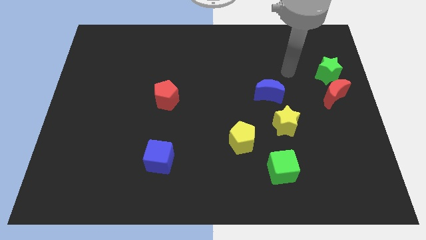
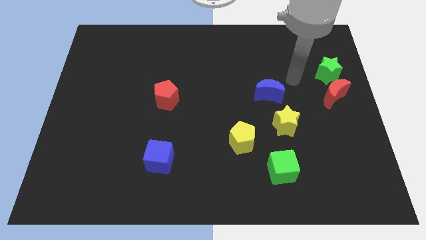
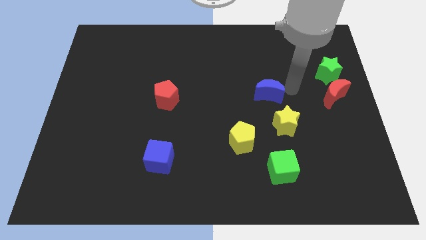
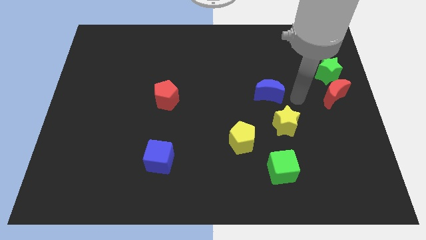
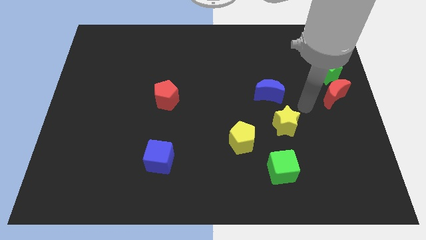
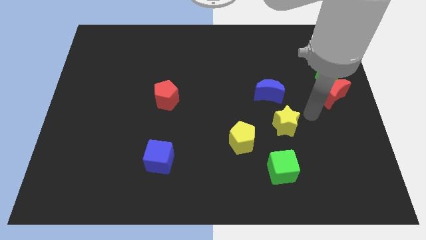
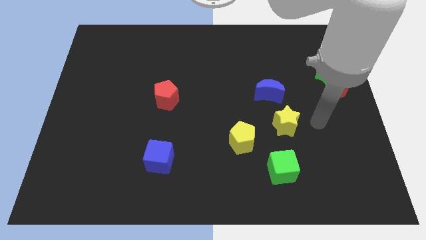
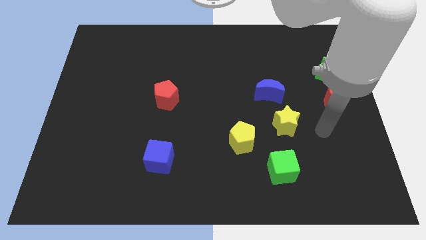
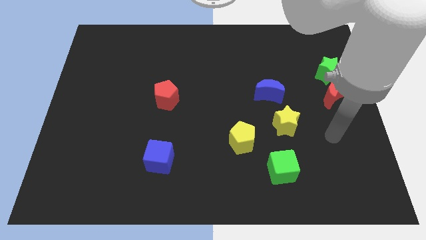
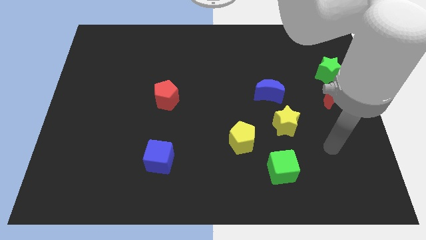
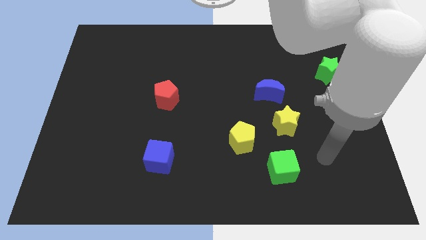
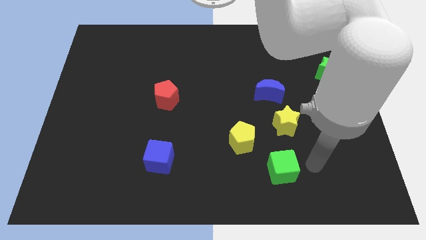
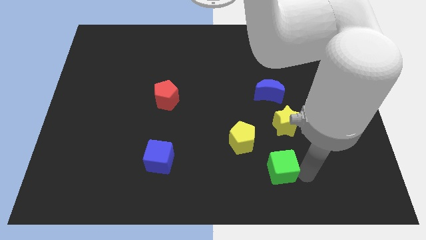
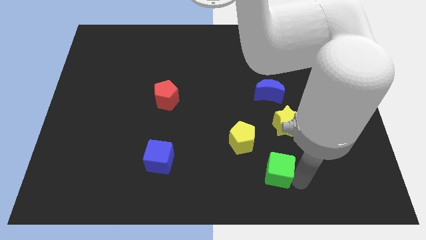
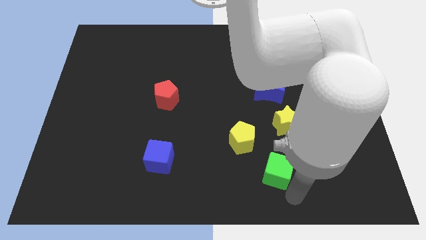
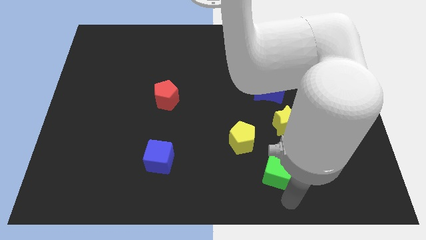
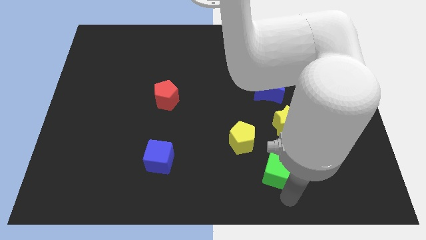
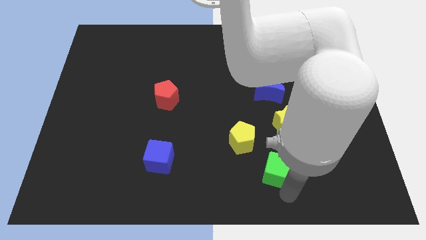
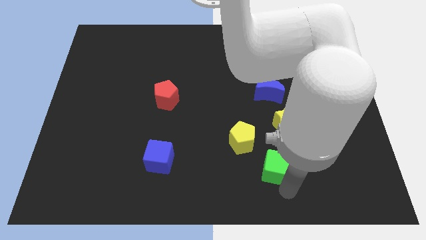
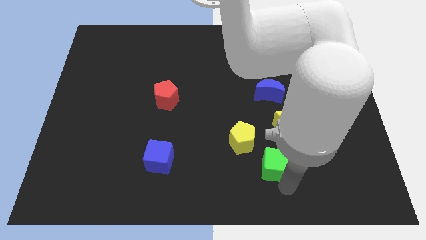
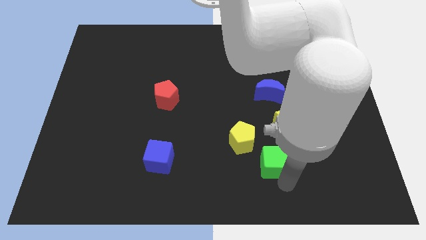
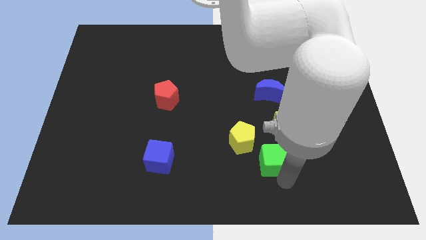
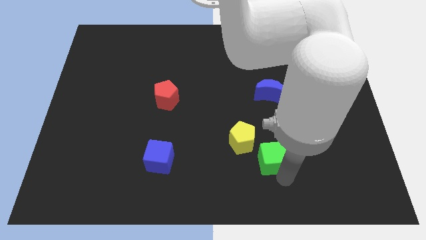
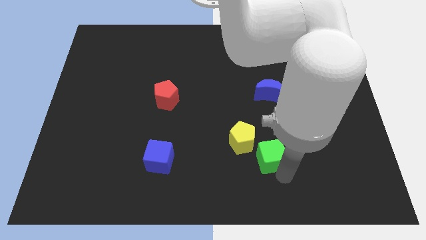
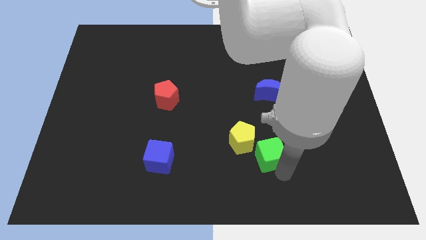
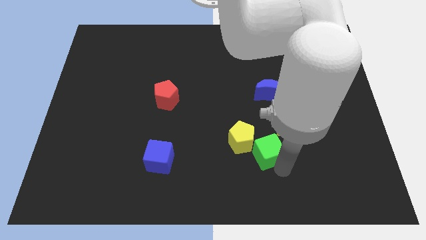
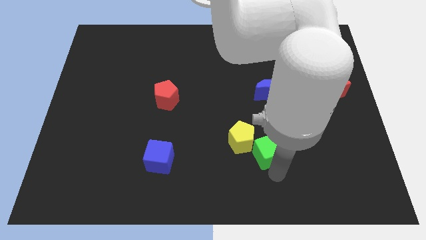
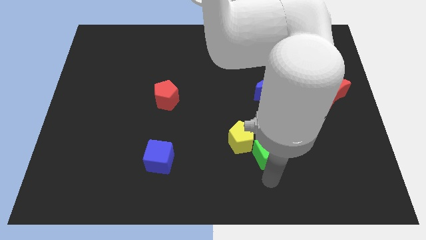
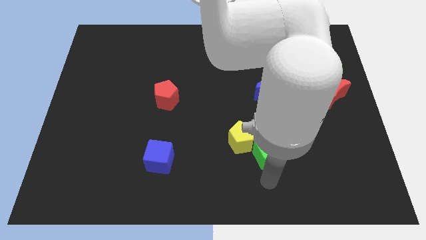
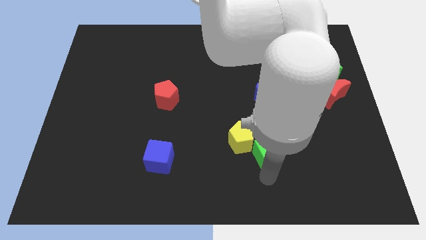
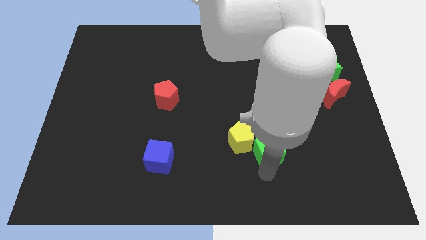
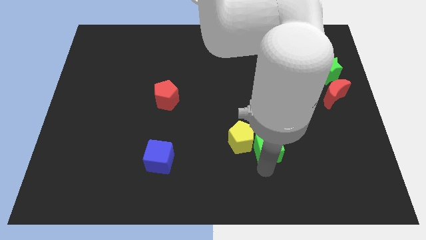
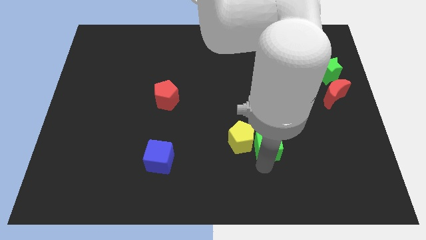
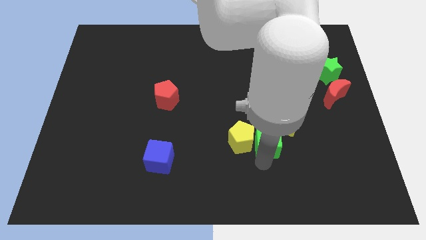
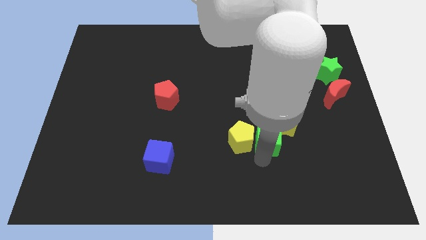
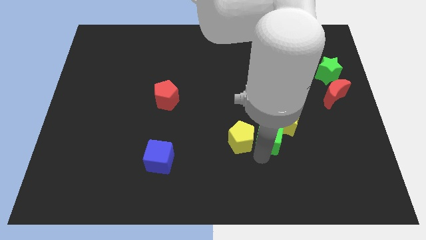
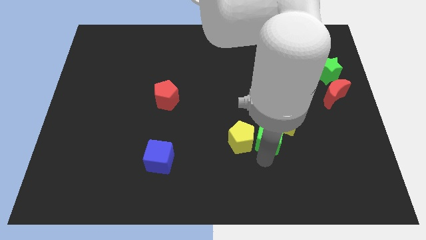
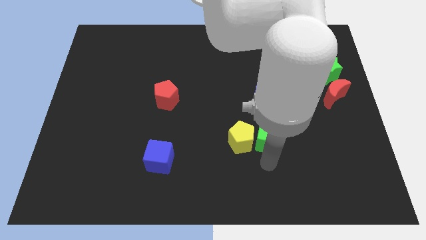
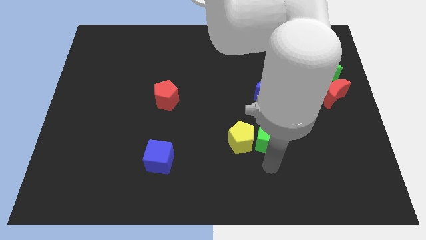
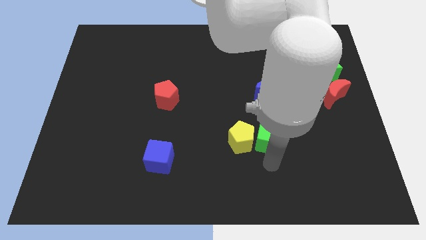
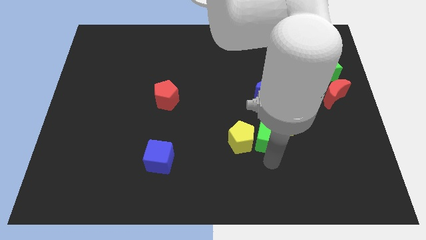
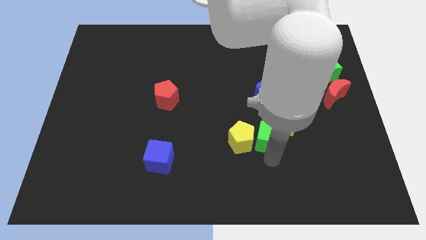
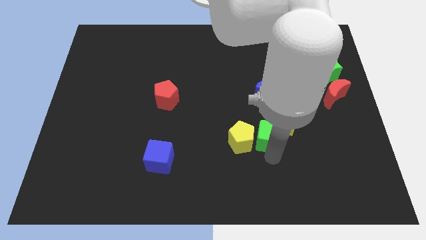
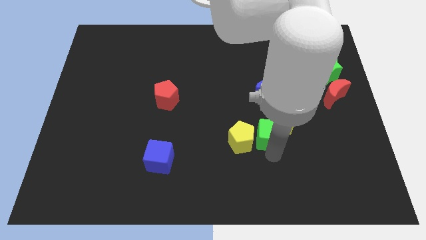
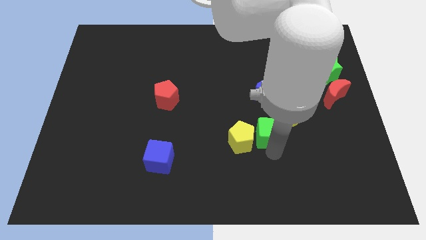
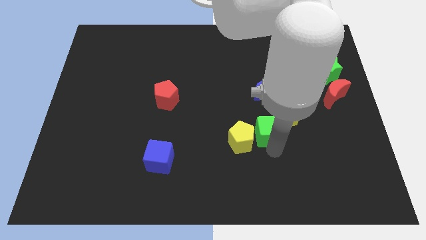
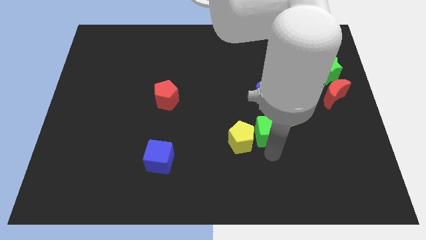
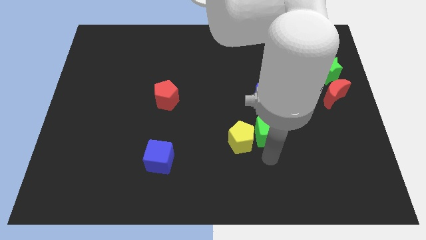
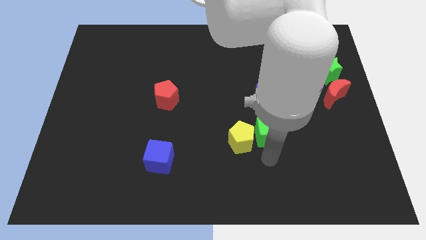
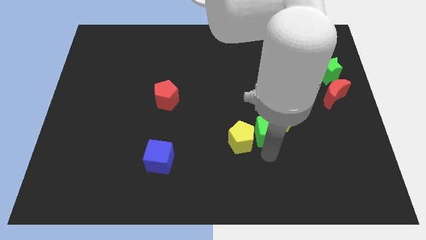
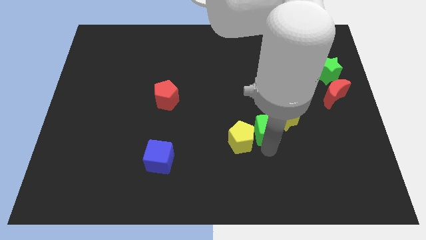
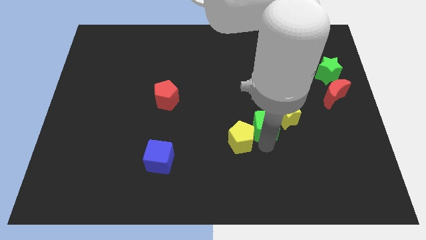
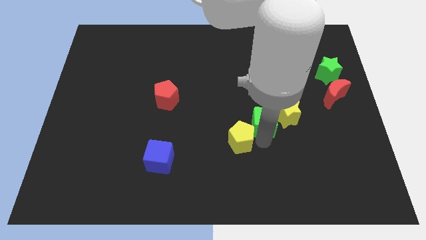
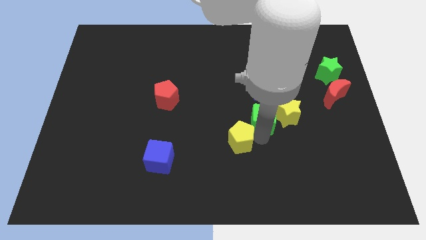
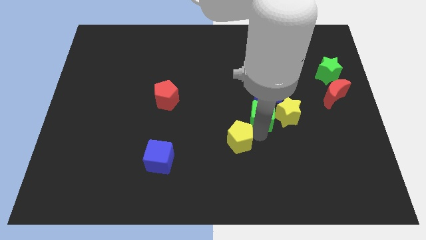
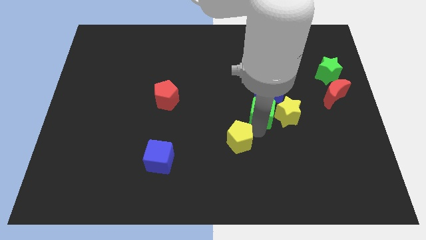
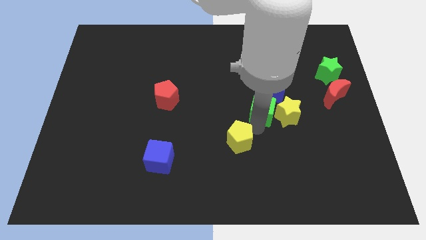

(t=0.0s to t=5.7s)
slide the green cube to the blue moon

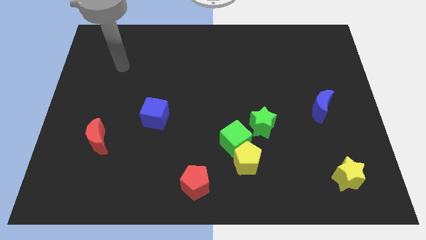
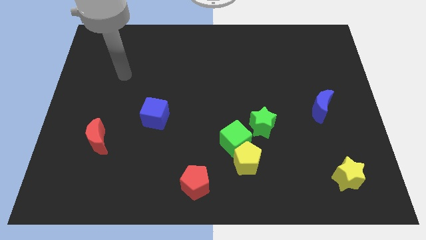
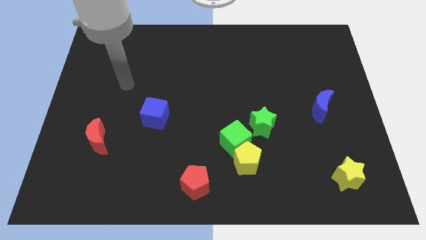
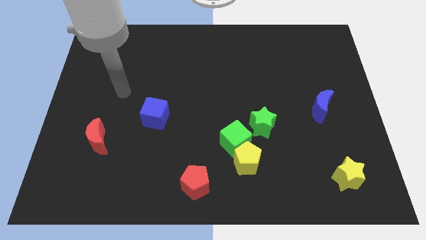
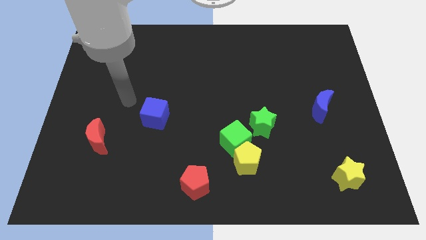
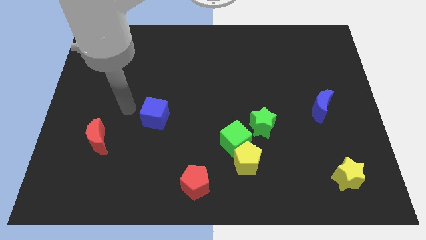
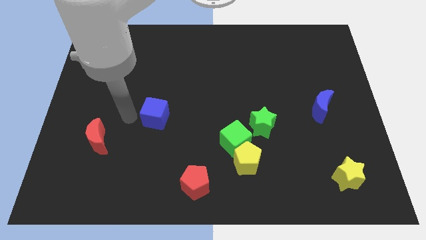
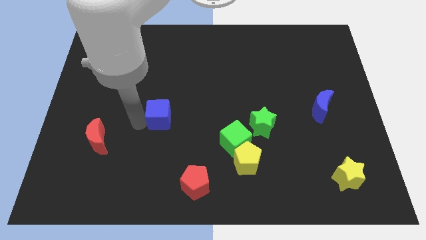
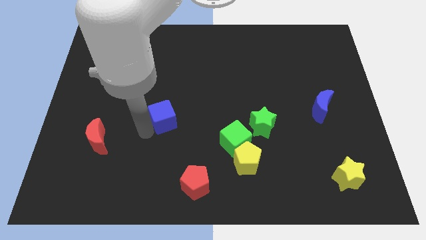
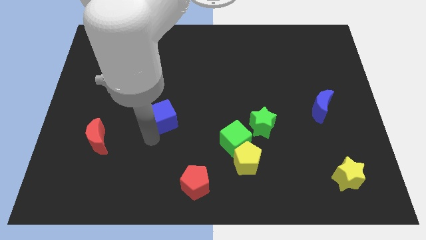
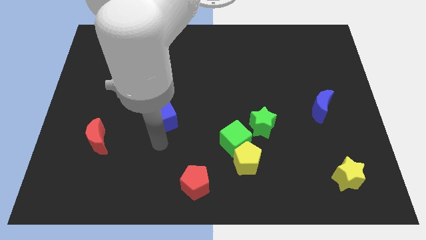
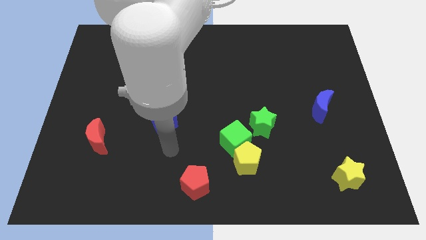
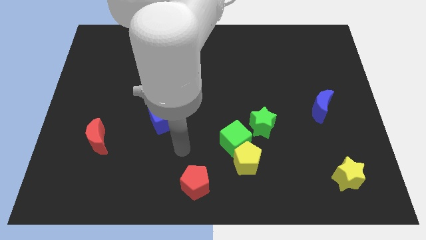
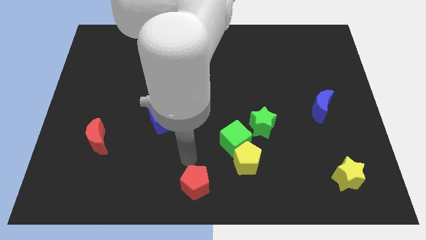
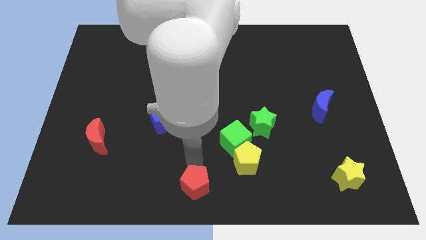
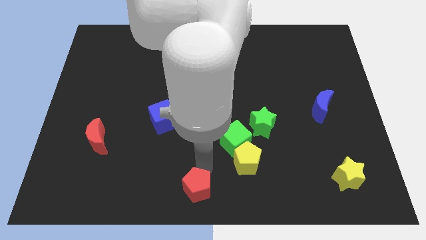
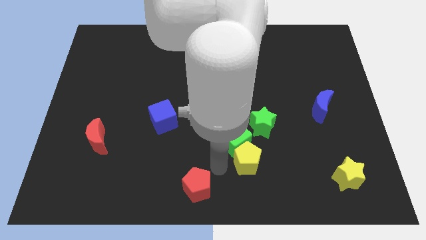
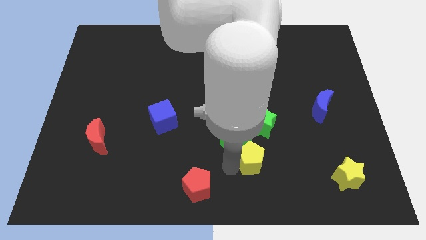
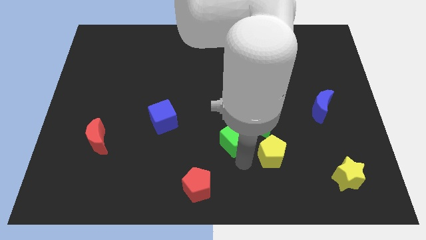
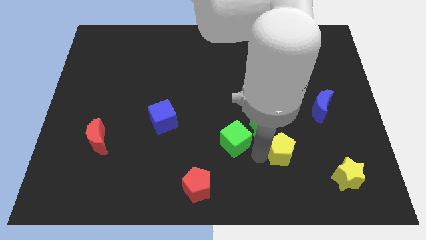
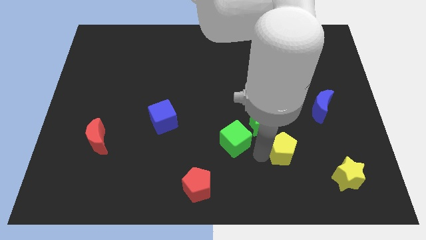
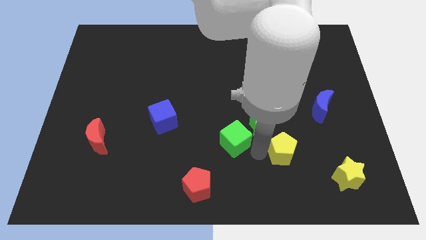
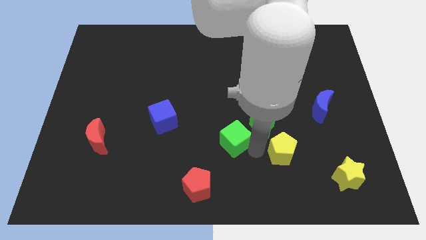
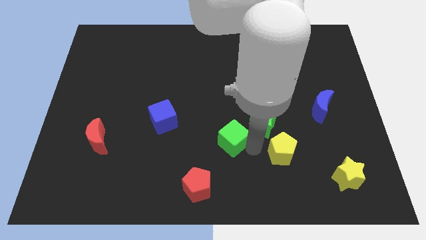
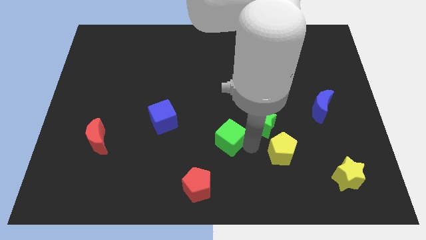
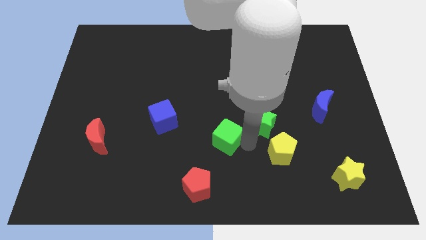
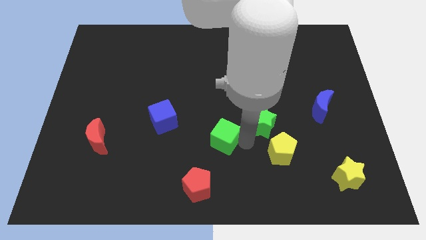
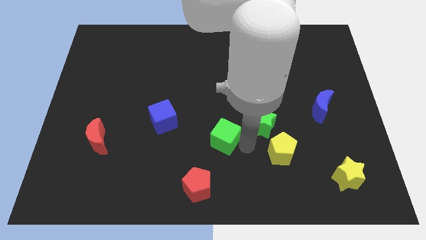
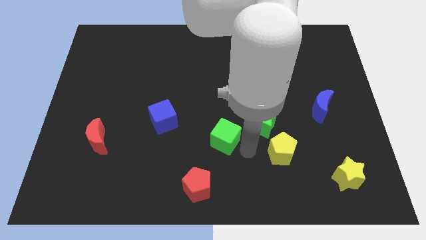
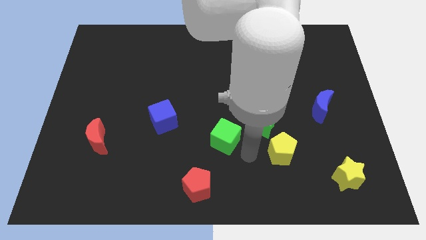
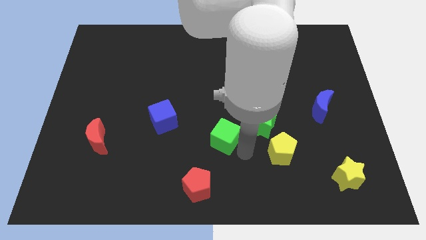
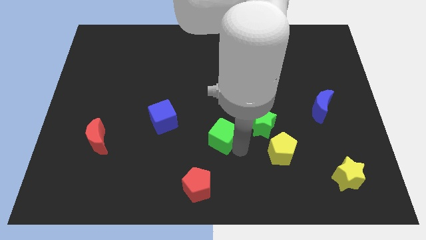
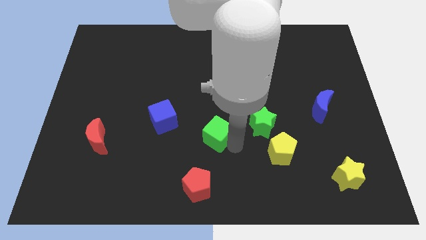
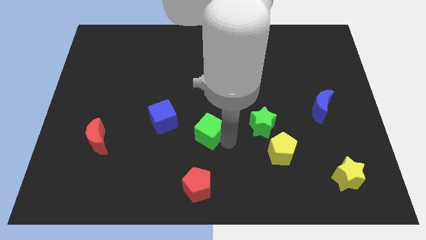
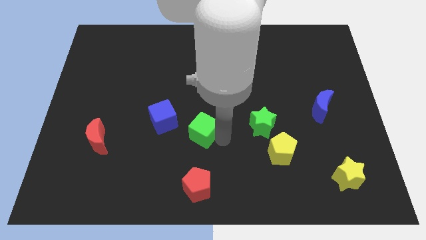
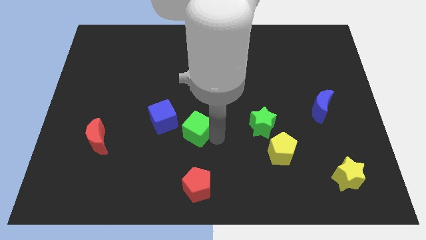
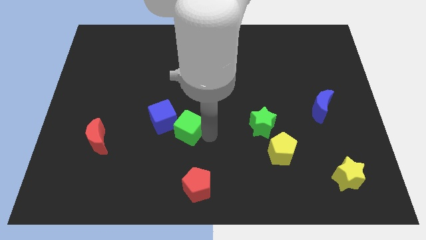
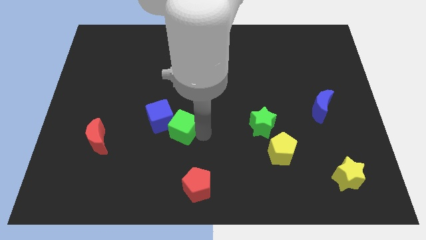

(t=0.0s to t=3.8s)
slide the green cube next to the blue cube
